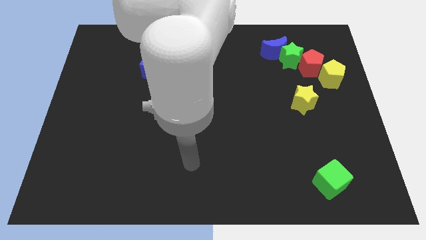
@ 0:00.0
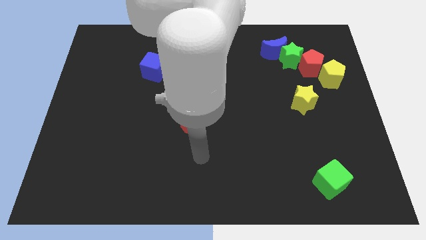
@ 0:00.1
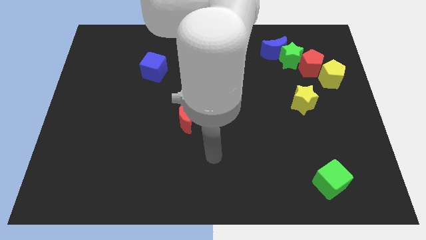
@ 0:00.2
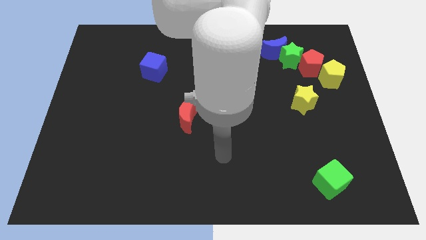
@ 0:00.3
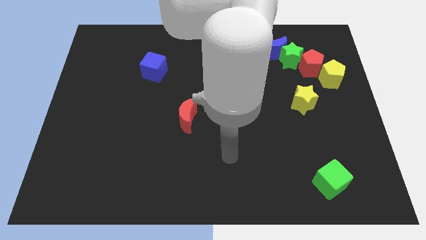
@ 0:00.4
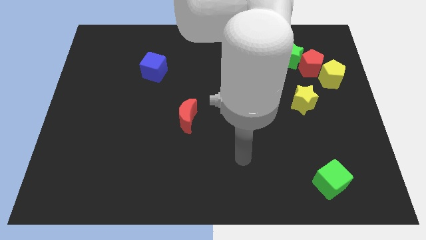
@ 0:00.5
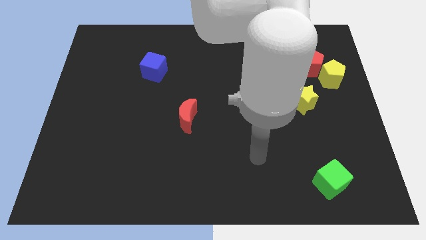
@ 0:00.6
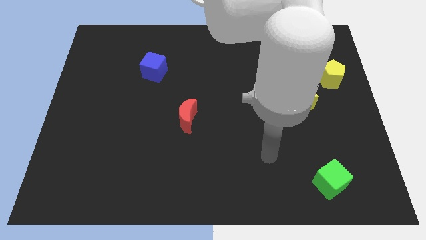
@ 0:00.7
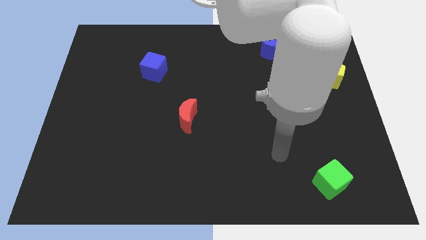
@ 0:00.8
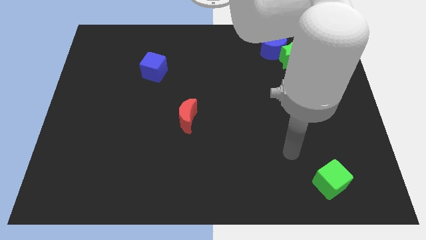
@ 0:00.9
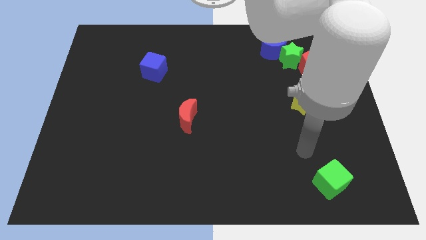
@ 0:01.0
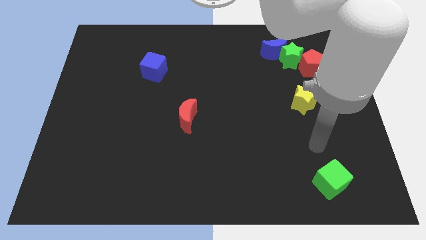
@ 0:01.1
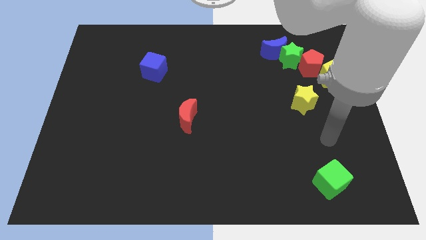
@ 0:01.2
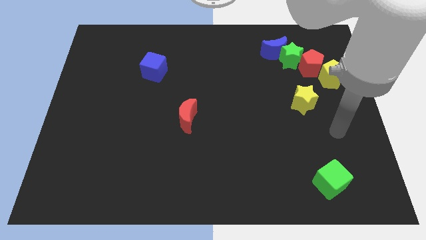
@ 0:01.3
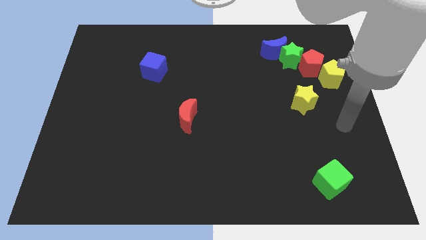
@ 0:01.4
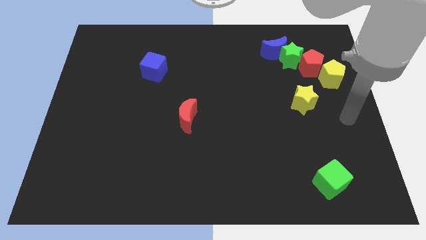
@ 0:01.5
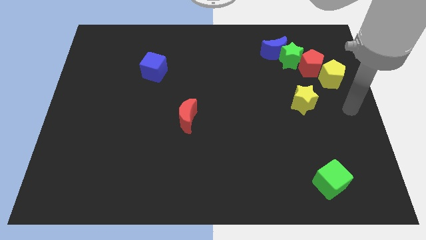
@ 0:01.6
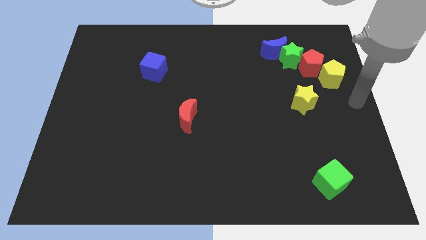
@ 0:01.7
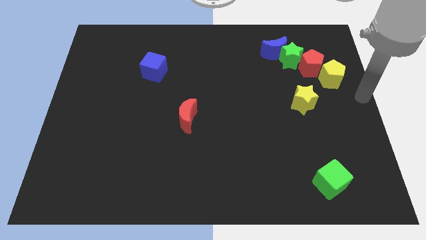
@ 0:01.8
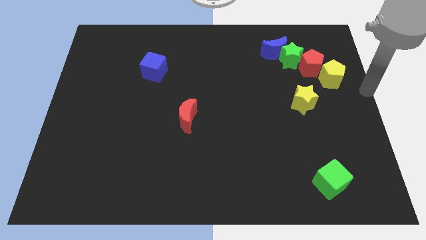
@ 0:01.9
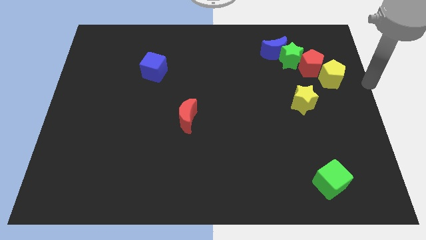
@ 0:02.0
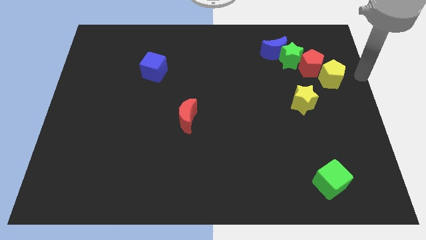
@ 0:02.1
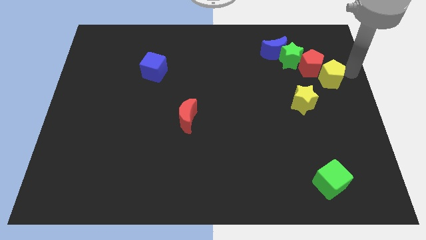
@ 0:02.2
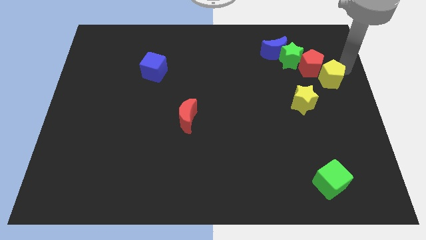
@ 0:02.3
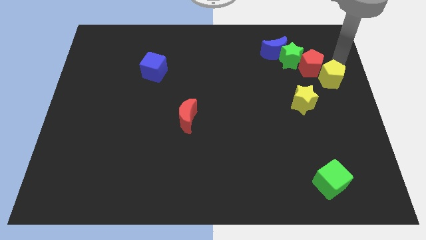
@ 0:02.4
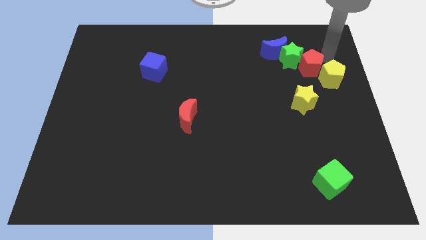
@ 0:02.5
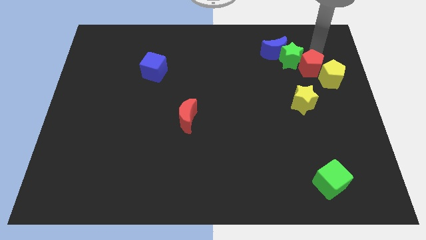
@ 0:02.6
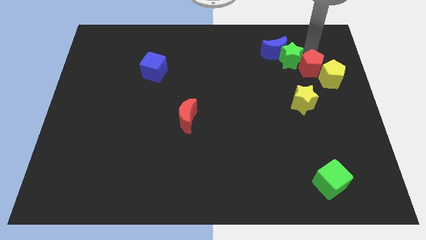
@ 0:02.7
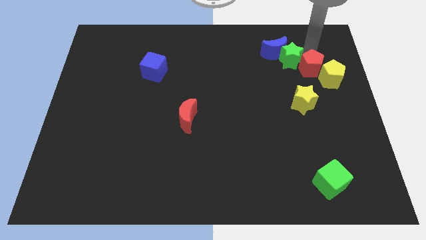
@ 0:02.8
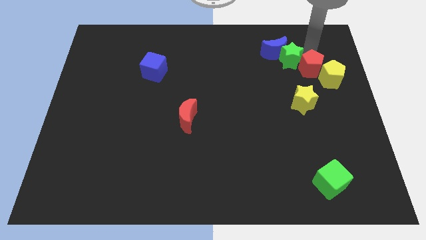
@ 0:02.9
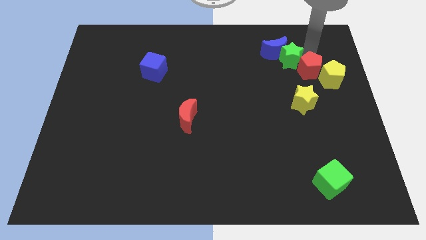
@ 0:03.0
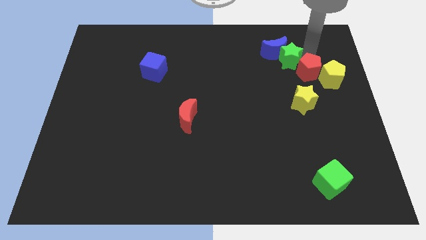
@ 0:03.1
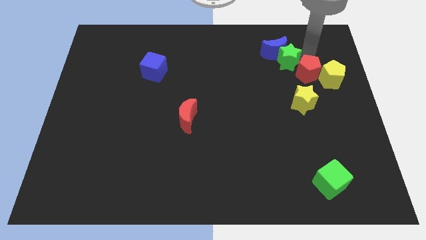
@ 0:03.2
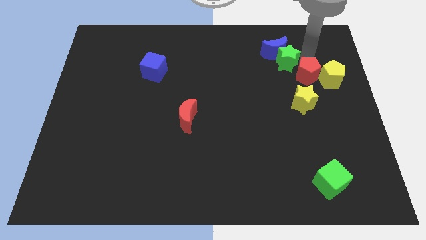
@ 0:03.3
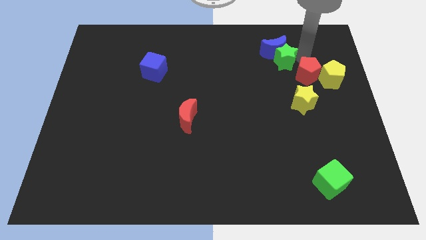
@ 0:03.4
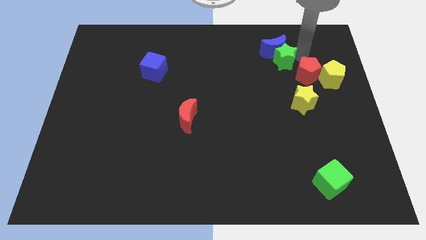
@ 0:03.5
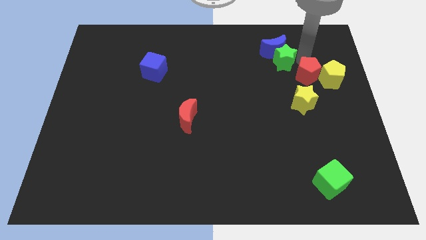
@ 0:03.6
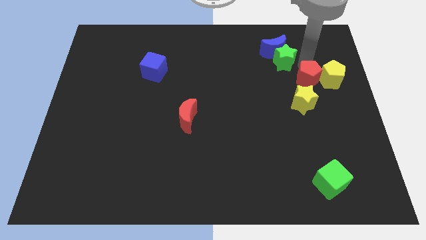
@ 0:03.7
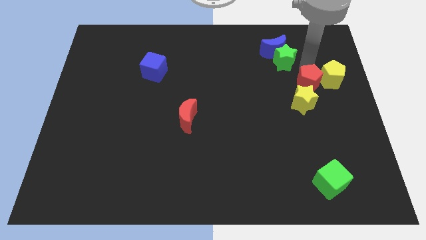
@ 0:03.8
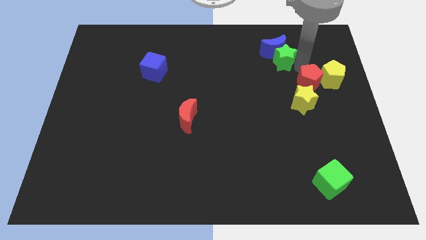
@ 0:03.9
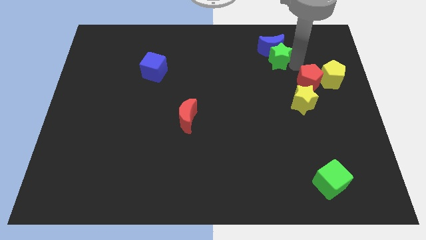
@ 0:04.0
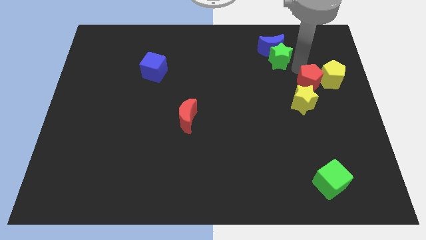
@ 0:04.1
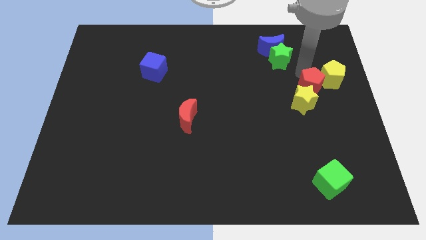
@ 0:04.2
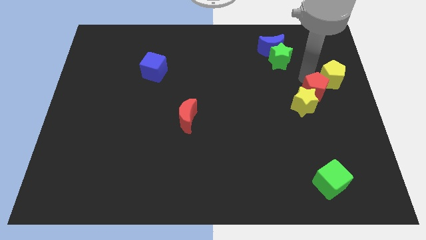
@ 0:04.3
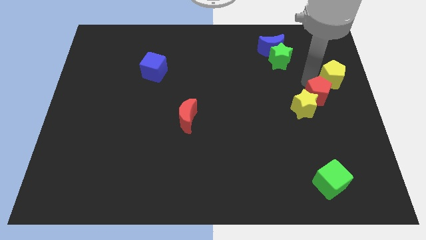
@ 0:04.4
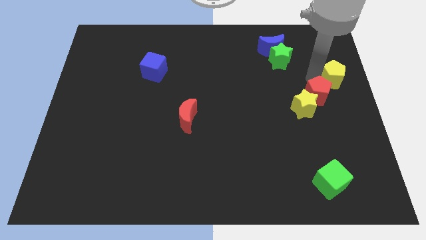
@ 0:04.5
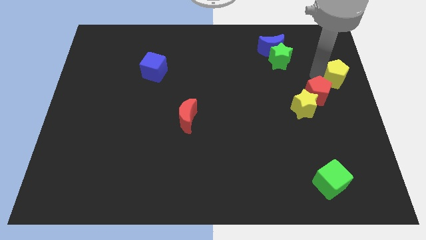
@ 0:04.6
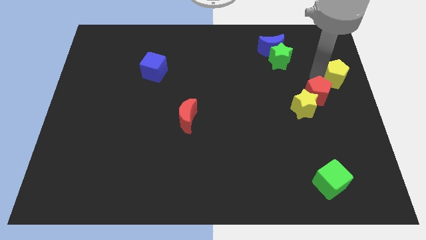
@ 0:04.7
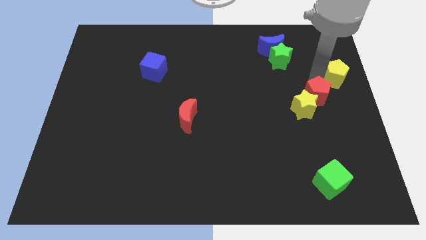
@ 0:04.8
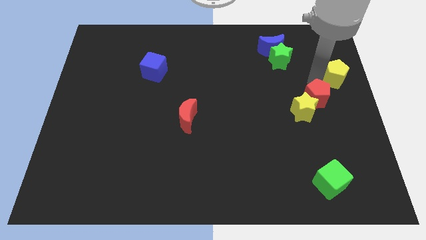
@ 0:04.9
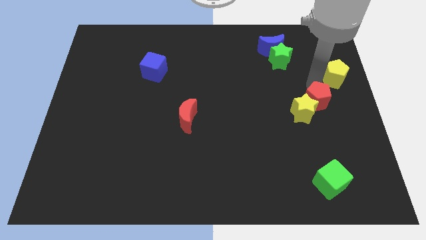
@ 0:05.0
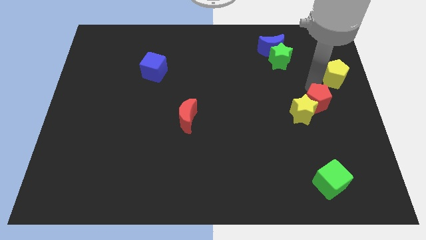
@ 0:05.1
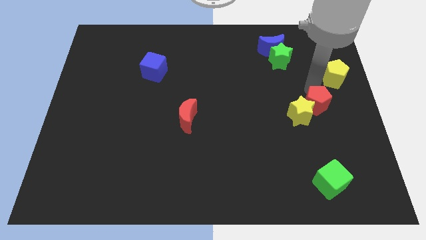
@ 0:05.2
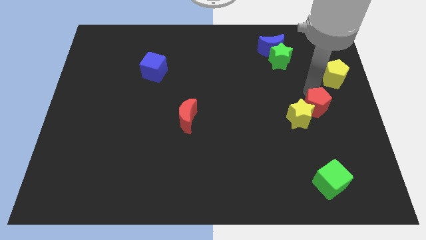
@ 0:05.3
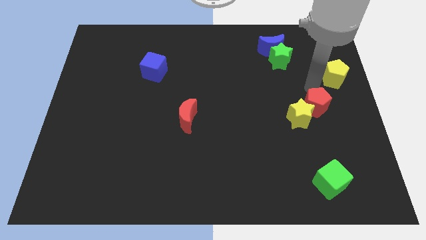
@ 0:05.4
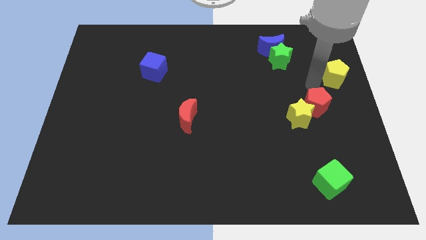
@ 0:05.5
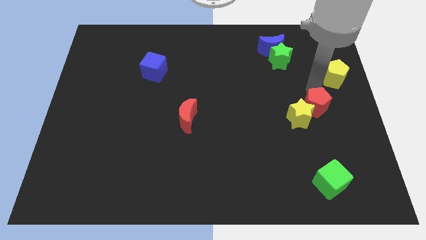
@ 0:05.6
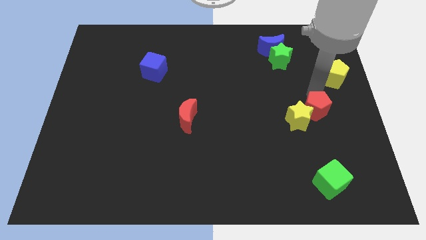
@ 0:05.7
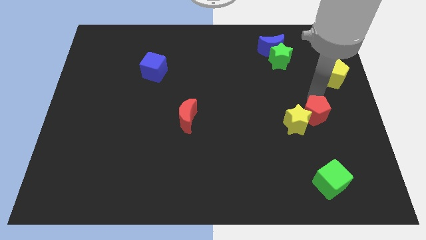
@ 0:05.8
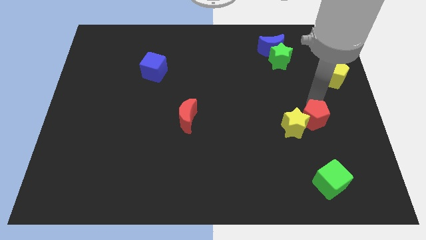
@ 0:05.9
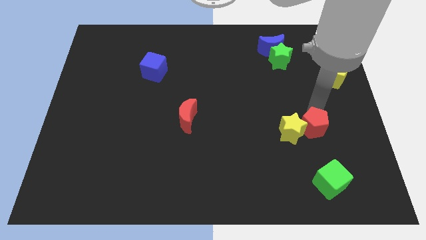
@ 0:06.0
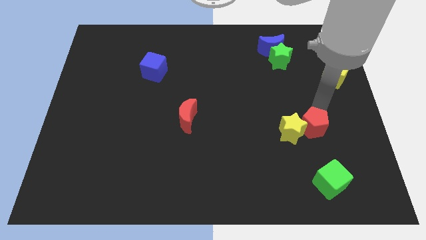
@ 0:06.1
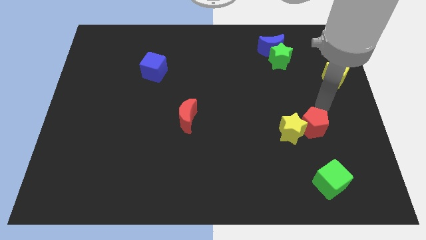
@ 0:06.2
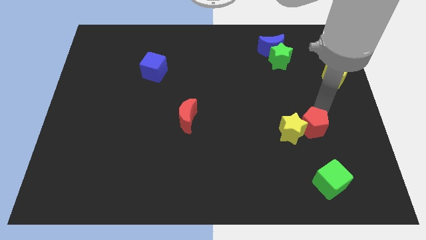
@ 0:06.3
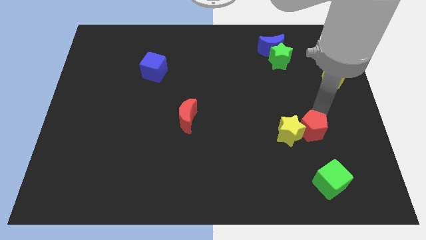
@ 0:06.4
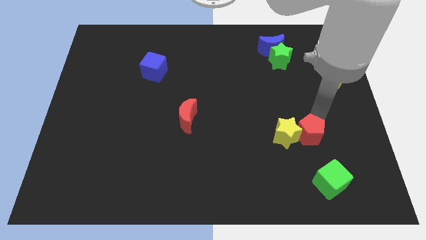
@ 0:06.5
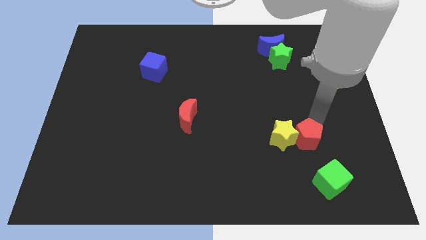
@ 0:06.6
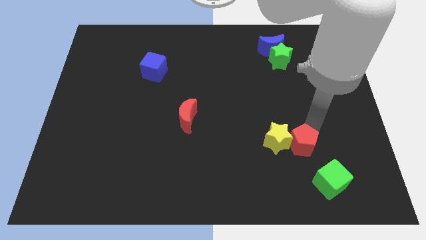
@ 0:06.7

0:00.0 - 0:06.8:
slide the red pentagon to the top left side of the green cube
